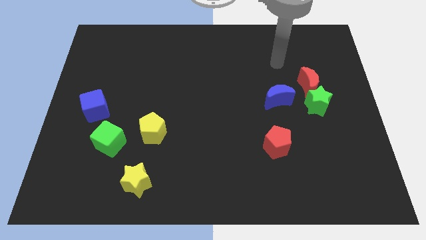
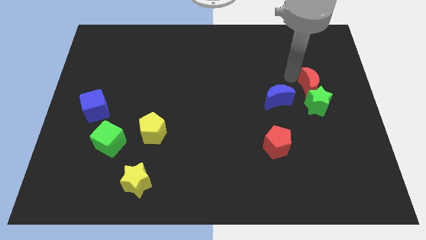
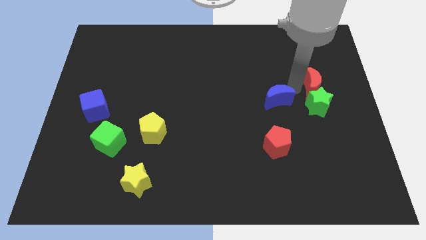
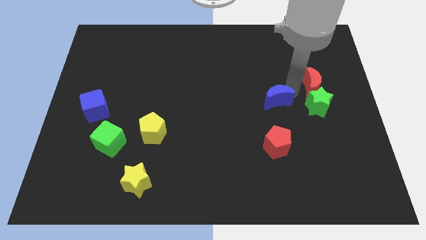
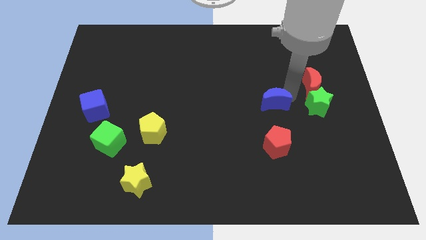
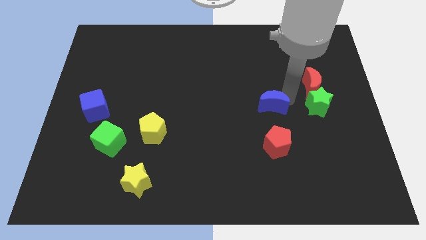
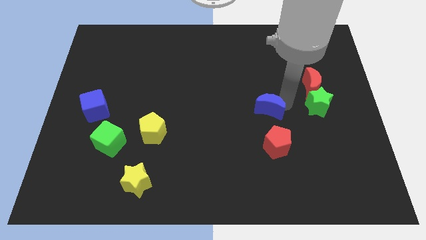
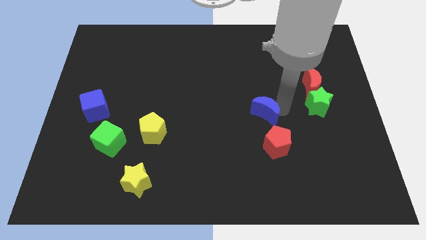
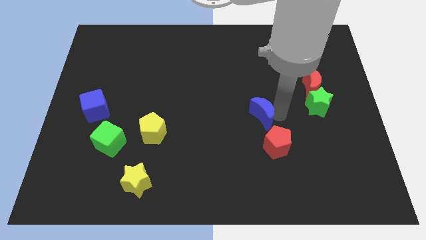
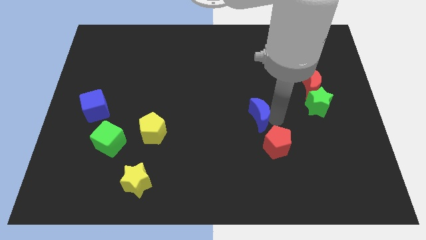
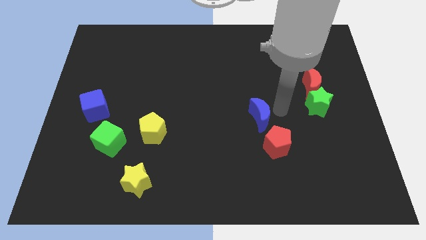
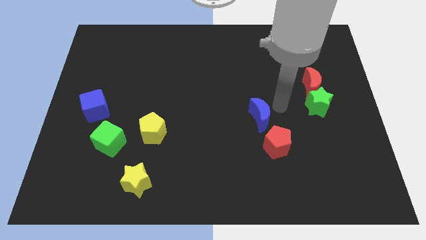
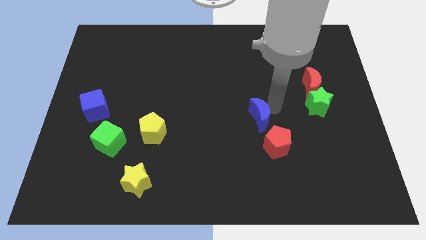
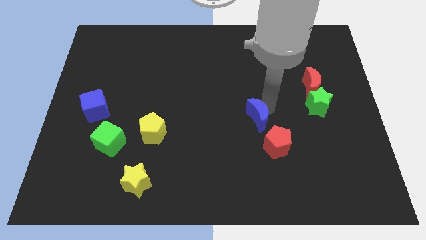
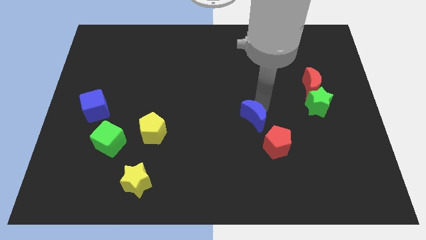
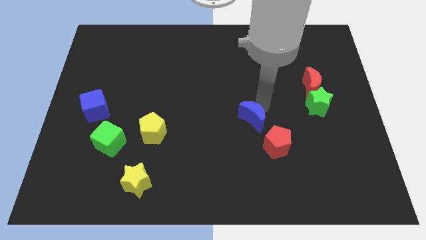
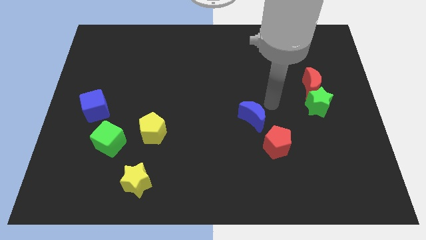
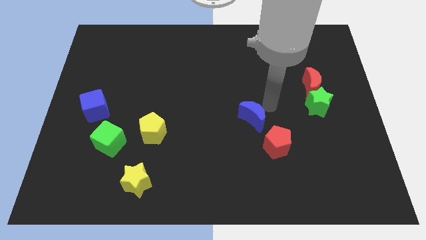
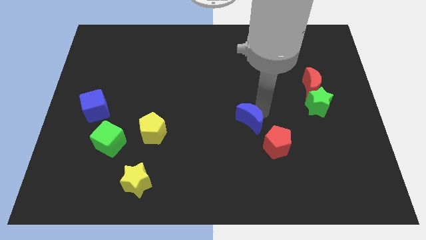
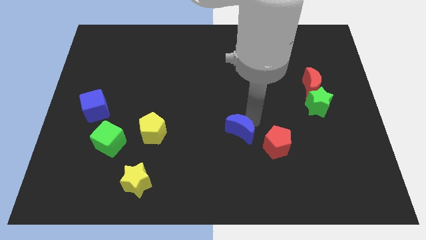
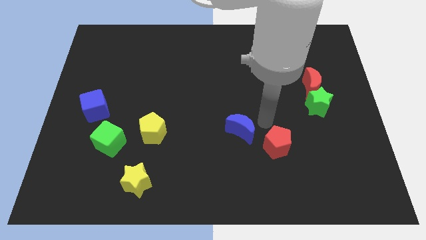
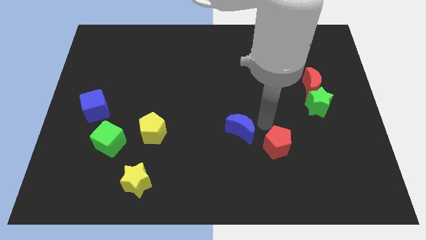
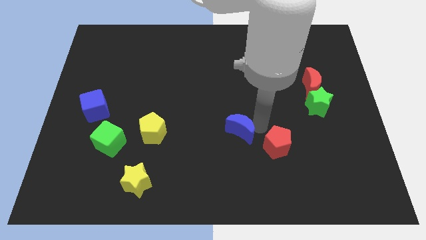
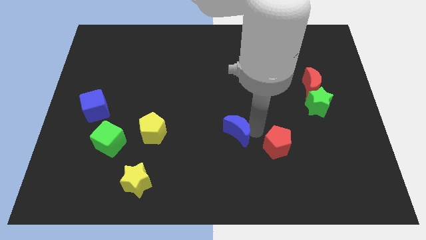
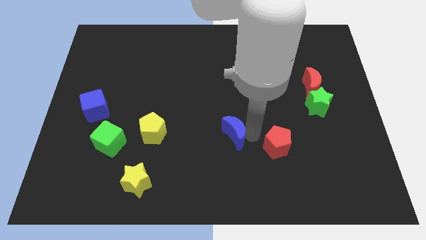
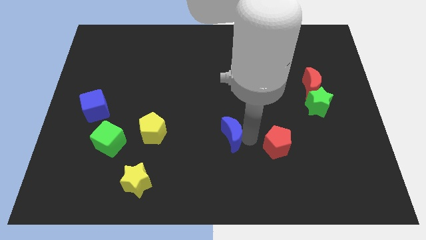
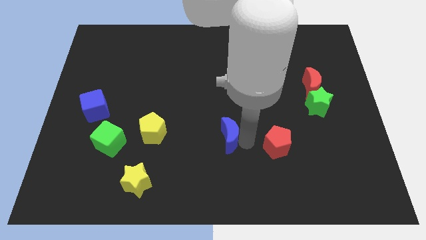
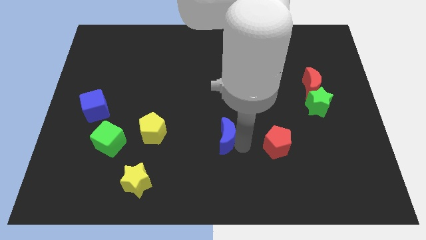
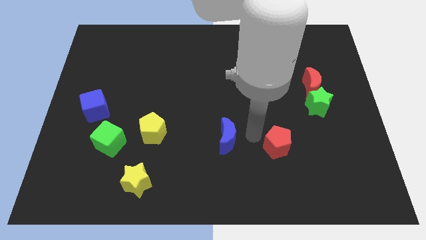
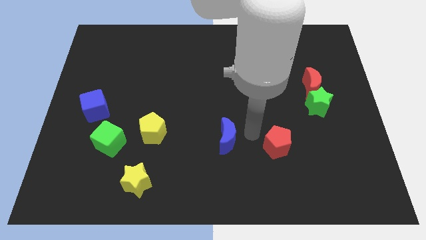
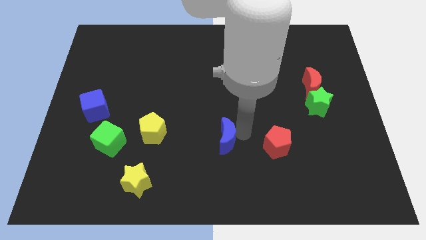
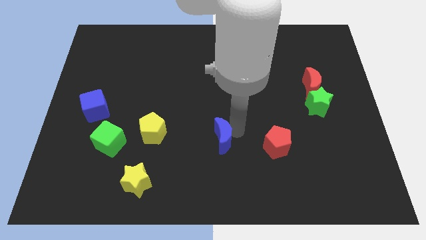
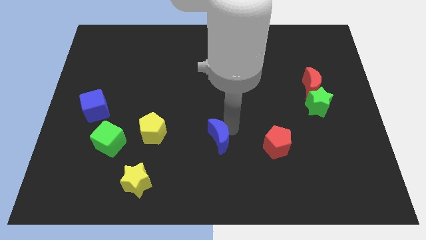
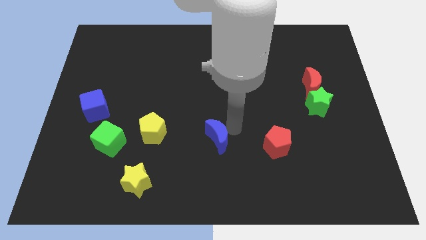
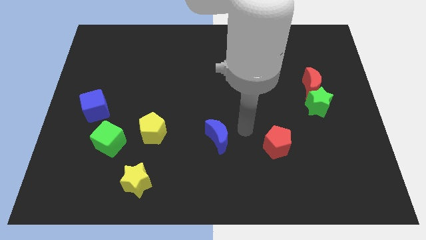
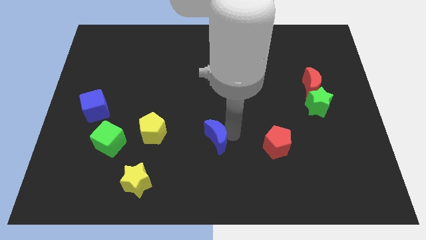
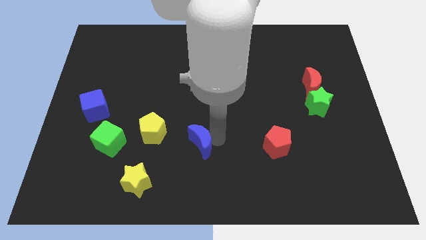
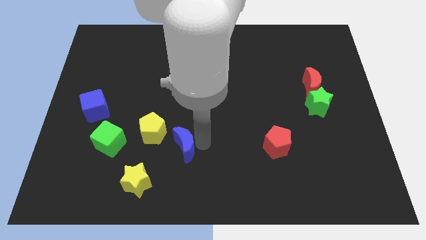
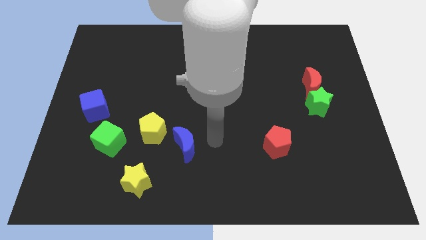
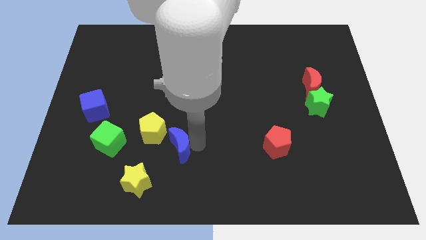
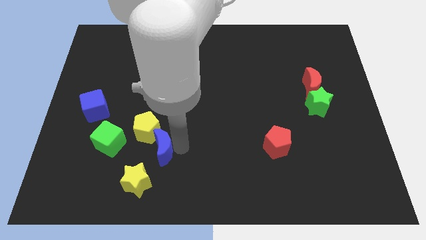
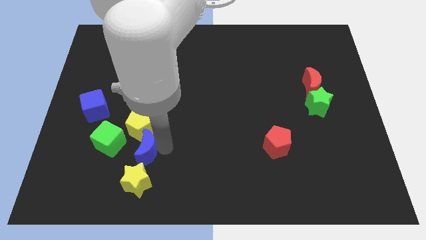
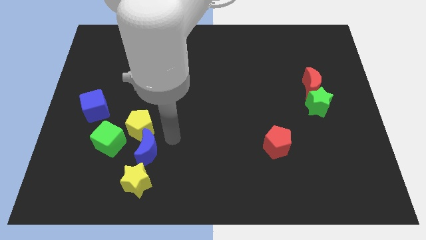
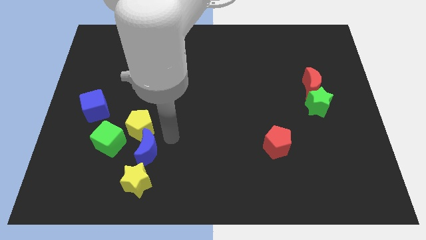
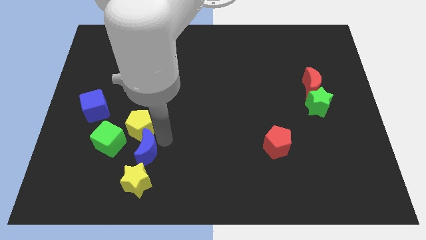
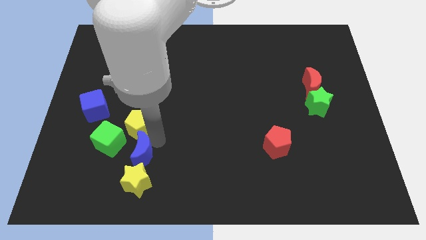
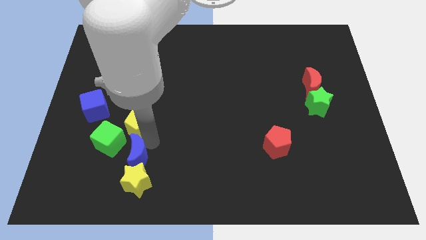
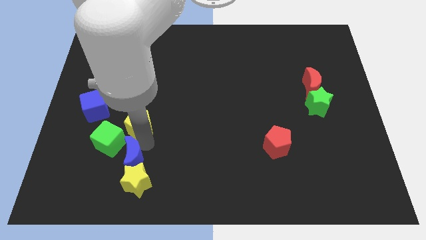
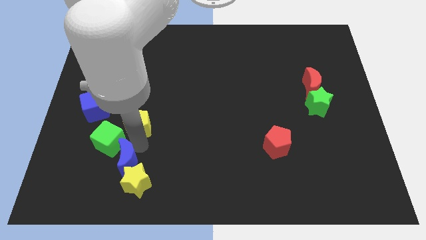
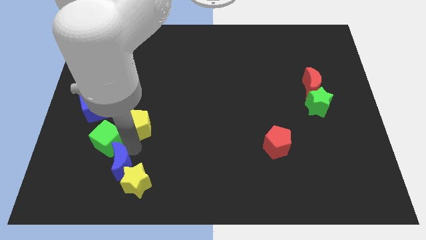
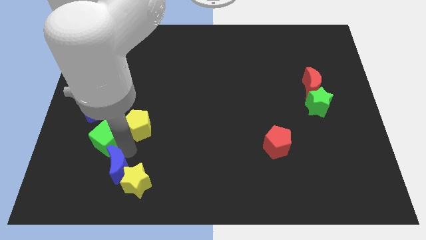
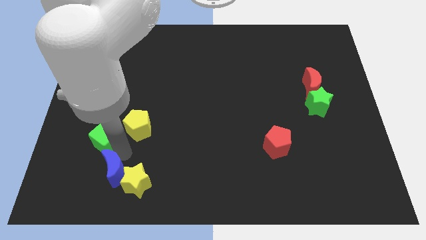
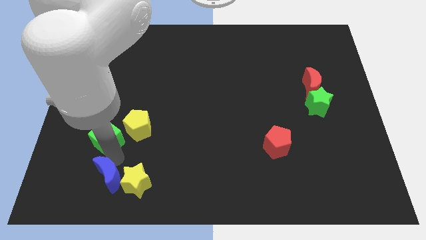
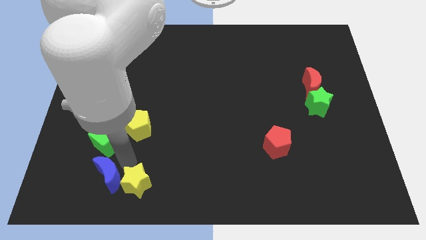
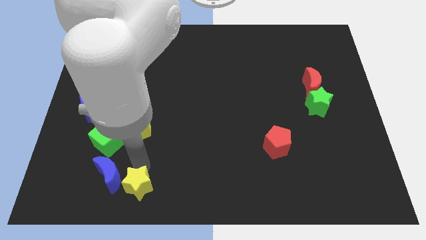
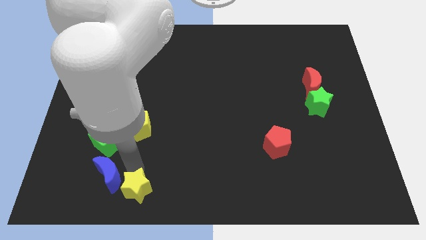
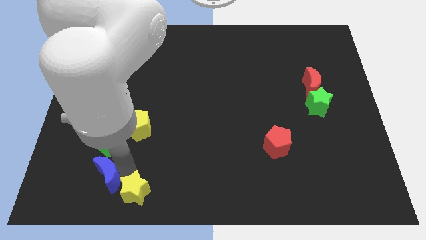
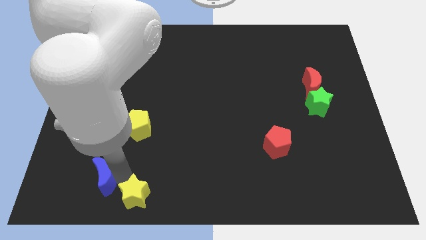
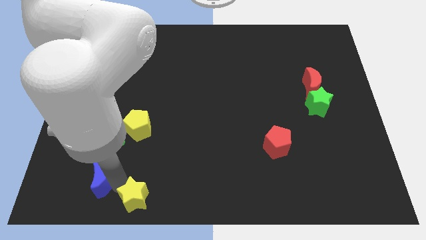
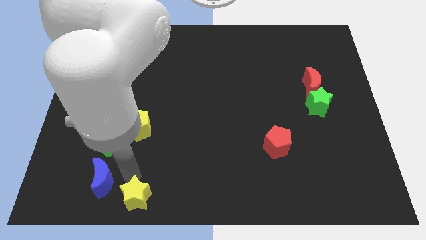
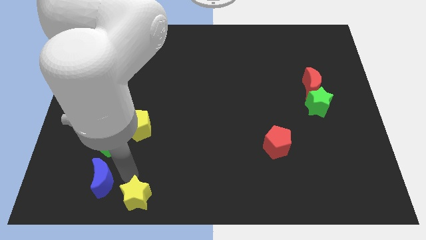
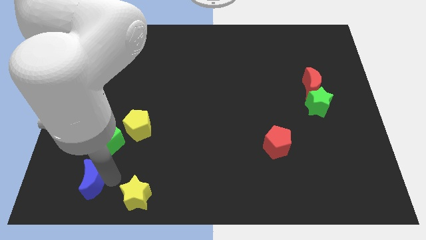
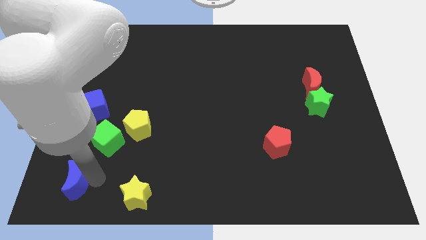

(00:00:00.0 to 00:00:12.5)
put the blue moon to the bottom left of the board

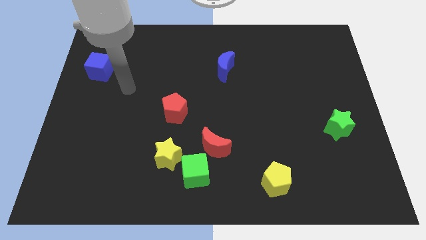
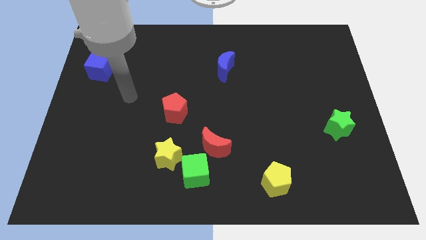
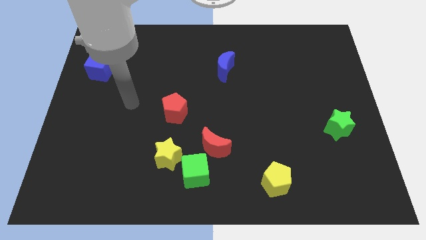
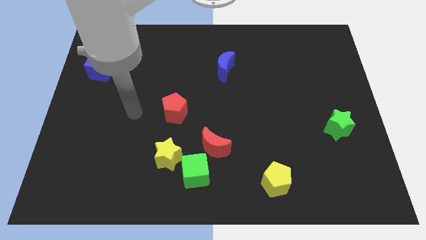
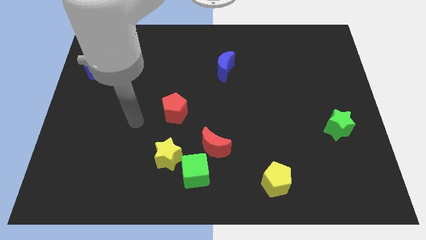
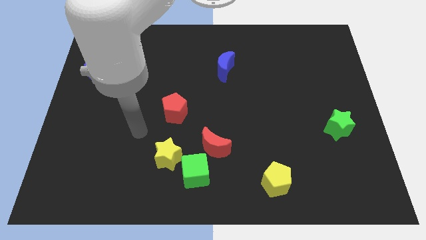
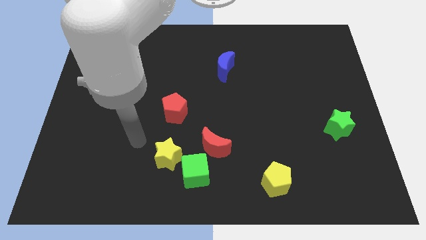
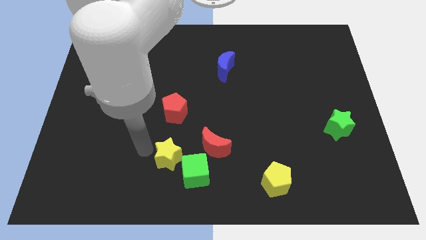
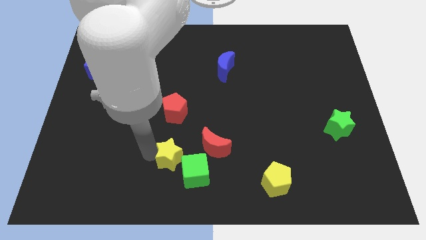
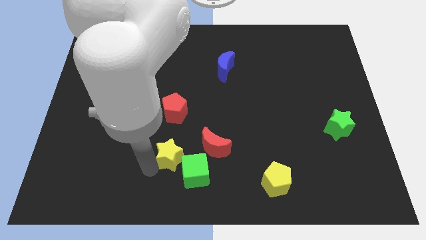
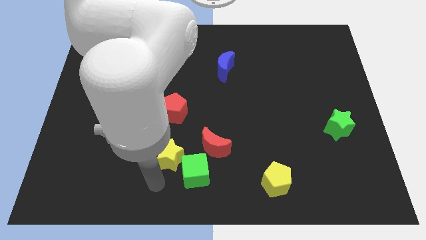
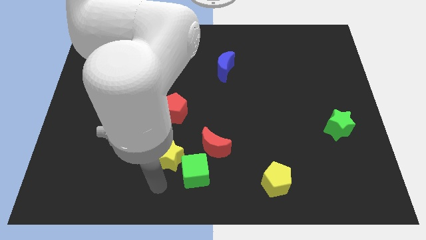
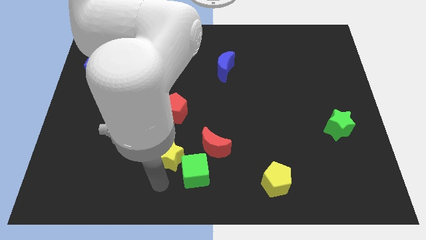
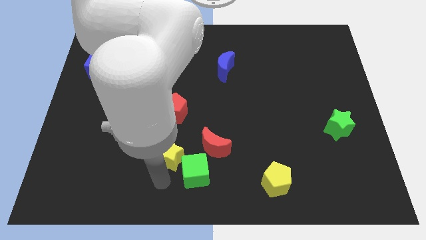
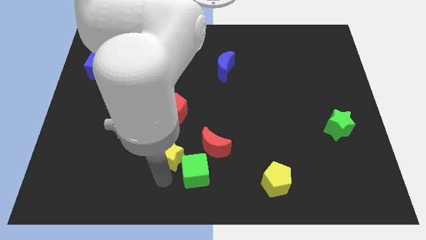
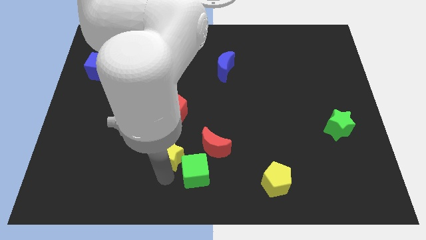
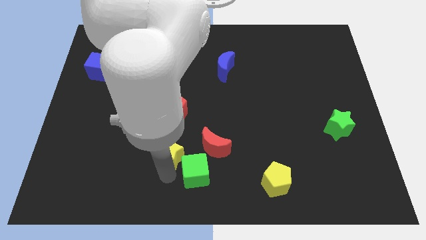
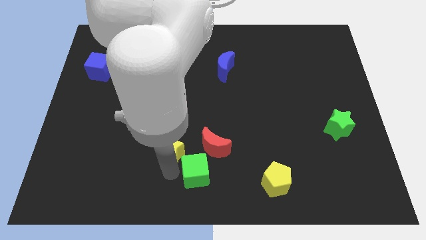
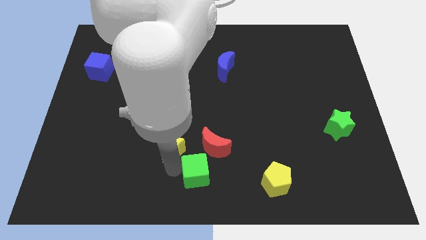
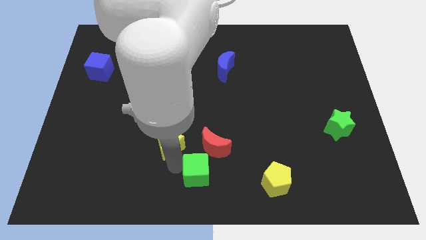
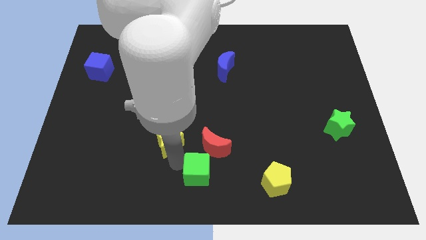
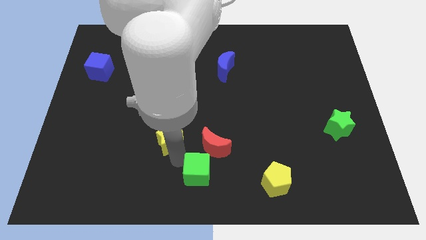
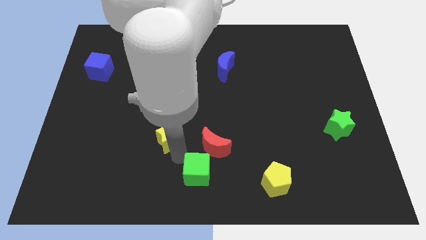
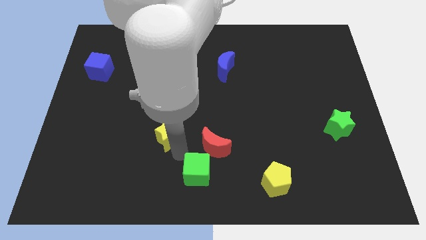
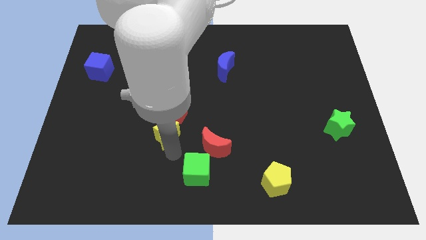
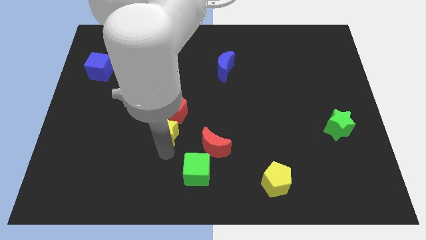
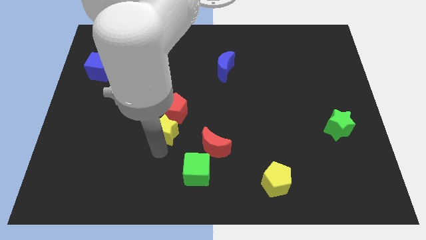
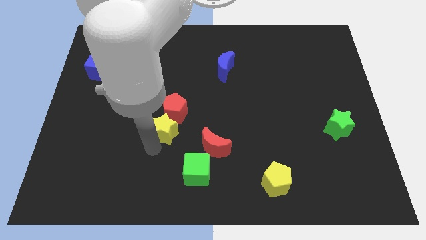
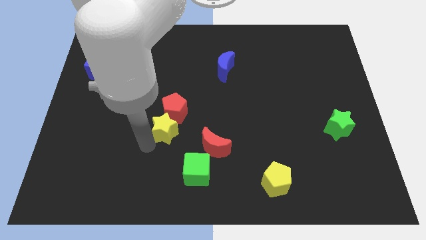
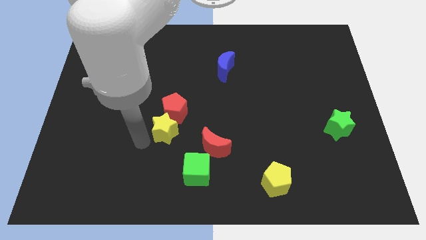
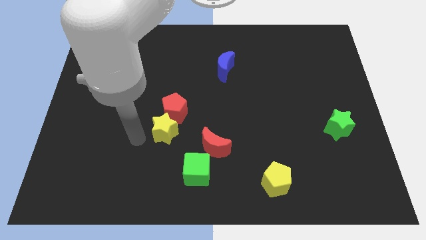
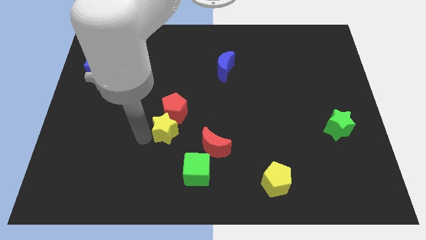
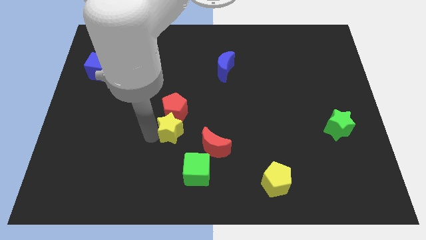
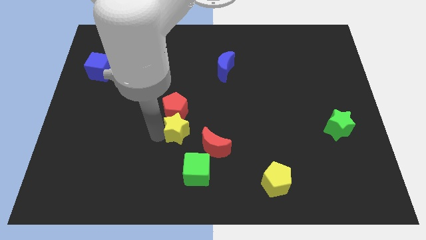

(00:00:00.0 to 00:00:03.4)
put the yellow star to the middle of the board
